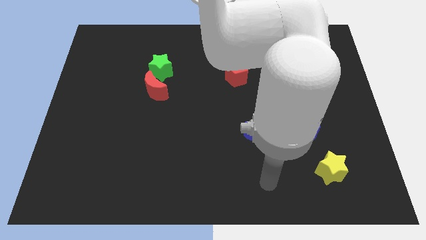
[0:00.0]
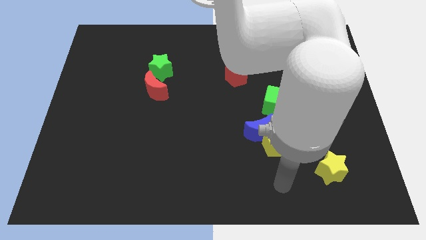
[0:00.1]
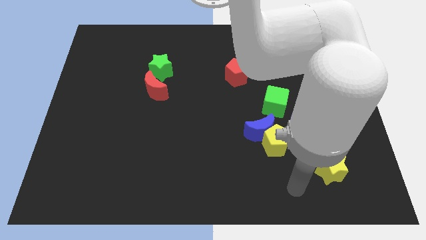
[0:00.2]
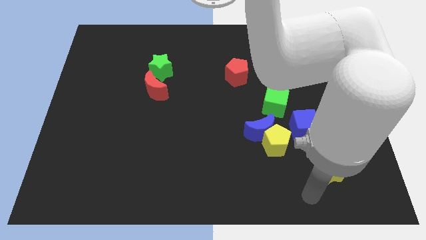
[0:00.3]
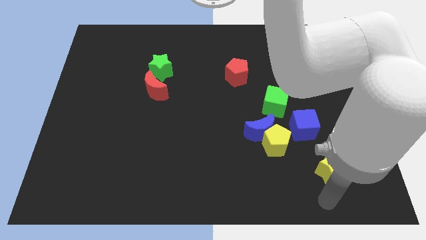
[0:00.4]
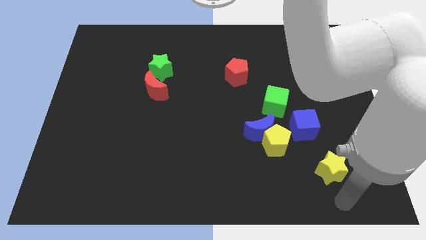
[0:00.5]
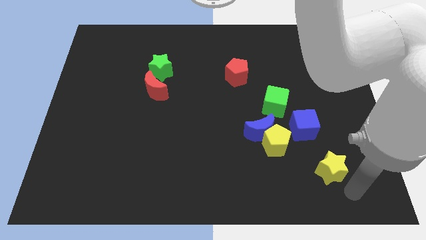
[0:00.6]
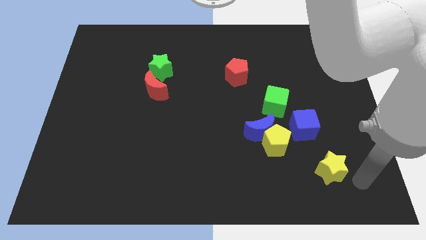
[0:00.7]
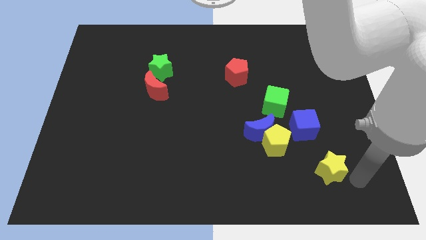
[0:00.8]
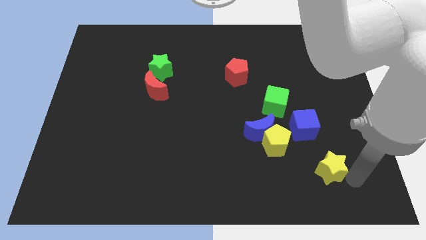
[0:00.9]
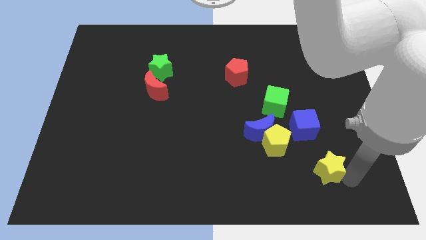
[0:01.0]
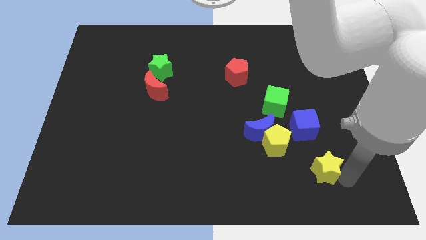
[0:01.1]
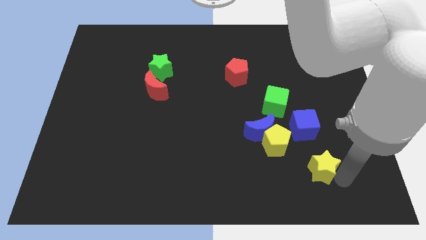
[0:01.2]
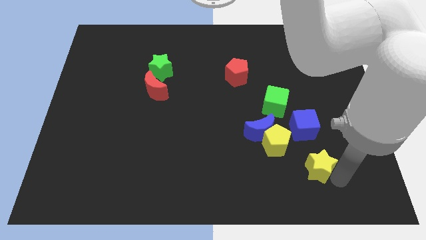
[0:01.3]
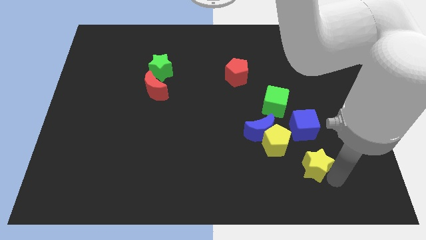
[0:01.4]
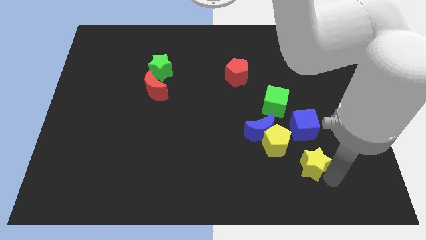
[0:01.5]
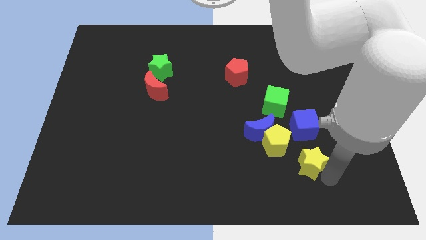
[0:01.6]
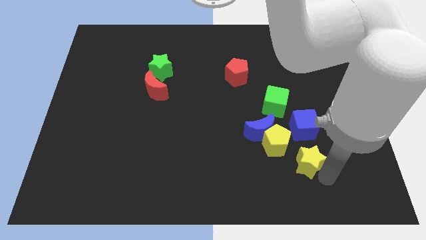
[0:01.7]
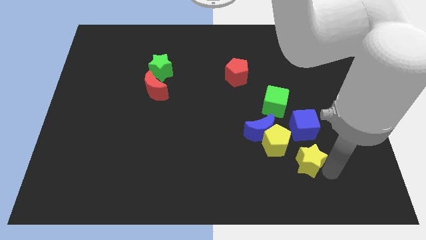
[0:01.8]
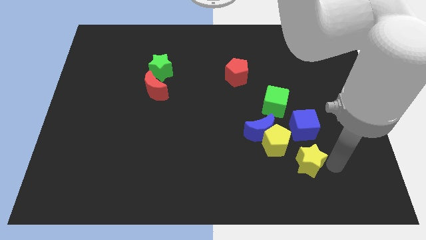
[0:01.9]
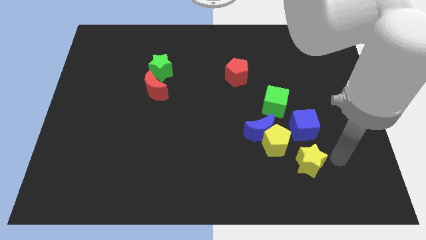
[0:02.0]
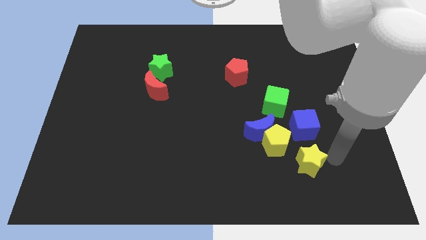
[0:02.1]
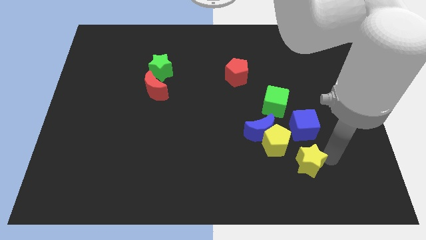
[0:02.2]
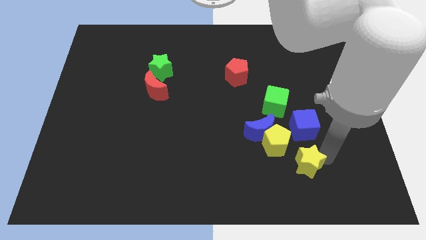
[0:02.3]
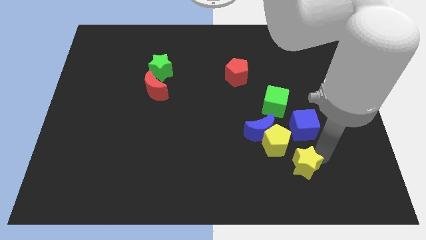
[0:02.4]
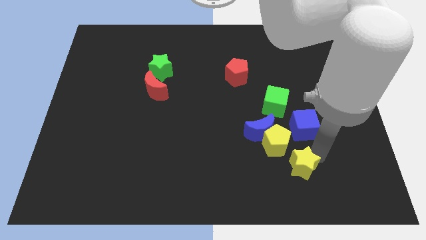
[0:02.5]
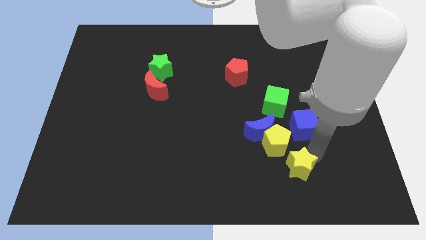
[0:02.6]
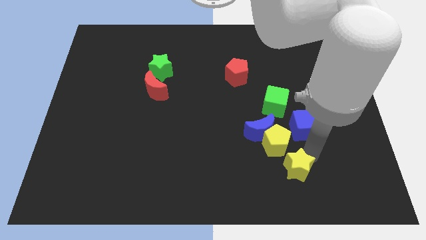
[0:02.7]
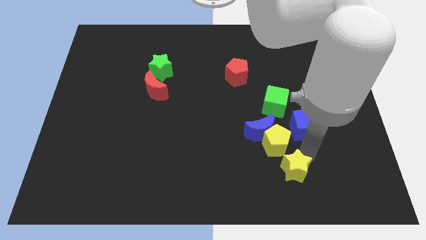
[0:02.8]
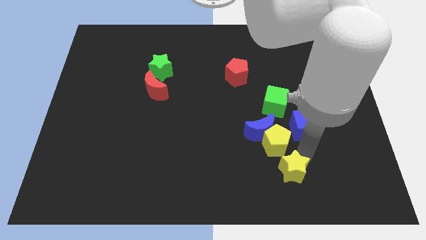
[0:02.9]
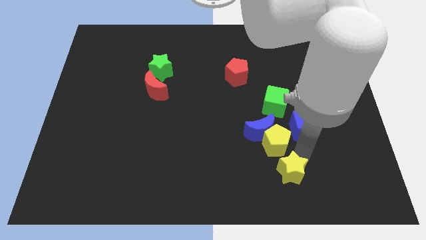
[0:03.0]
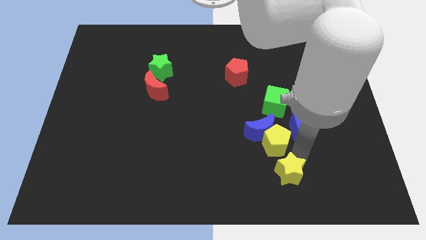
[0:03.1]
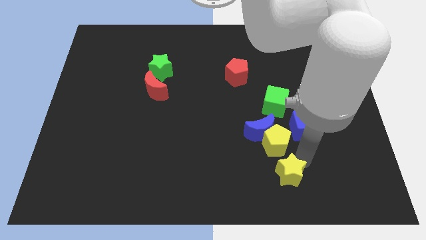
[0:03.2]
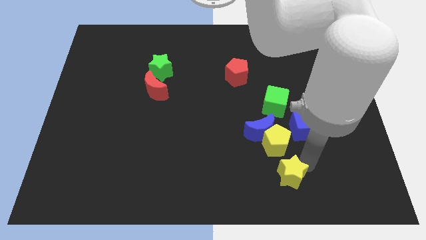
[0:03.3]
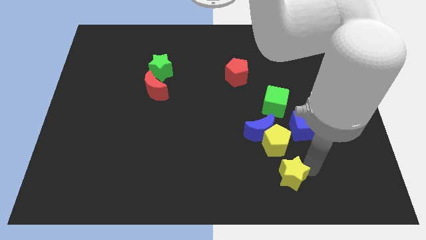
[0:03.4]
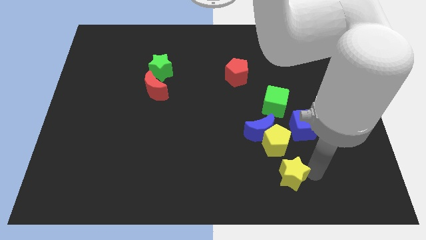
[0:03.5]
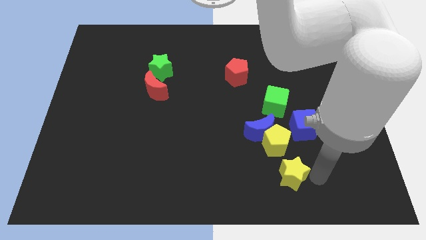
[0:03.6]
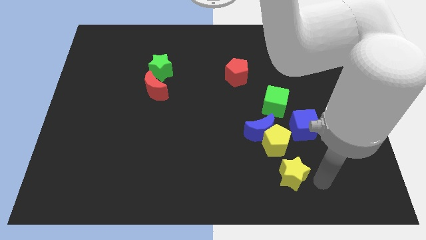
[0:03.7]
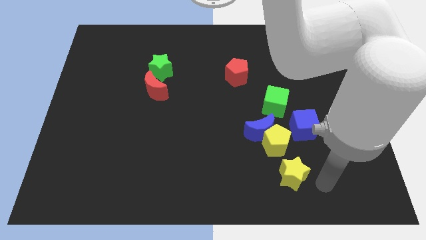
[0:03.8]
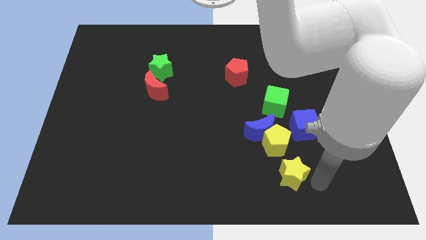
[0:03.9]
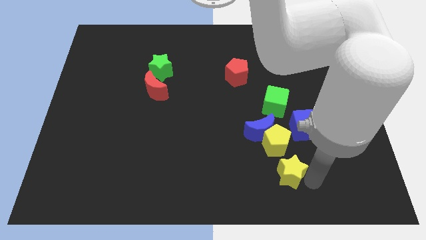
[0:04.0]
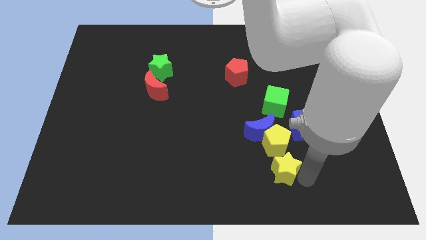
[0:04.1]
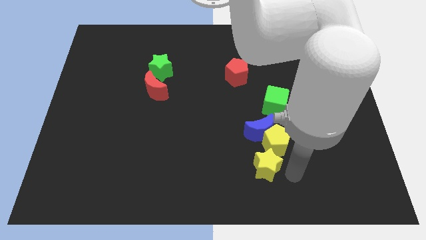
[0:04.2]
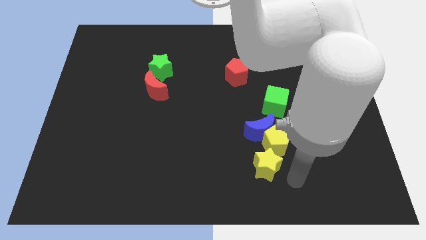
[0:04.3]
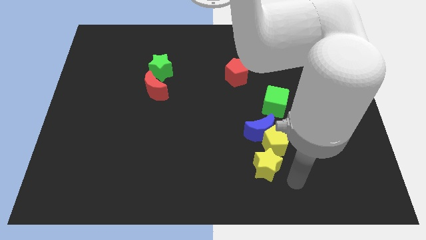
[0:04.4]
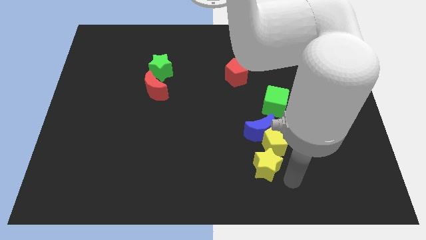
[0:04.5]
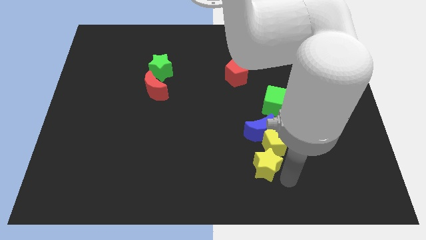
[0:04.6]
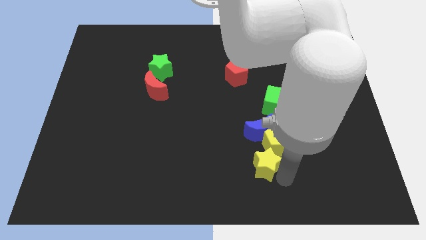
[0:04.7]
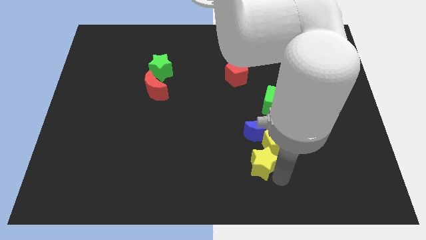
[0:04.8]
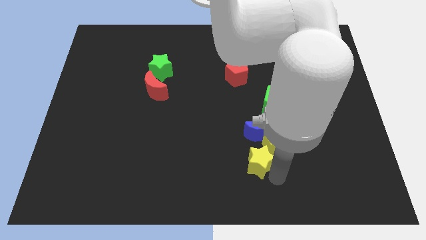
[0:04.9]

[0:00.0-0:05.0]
slide the yellow star diagonally down and to the left of the blue moon

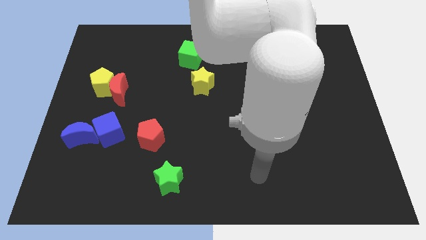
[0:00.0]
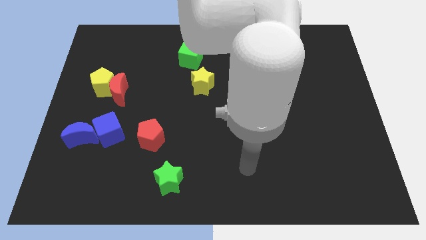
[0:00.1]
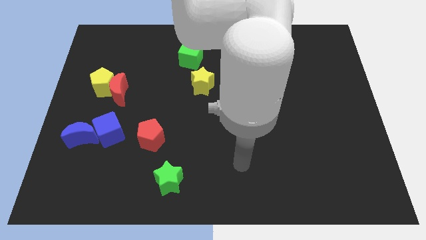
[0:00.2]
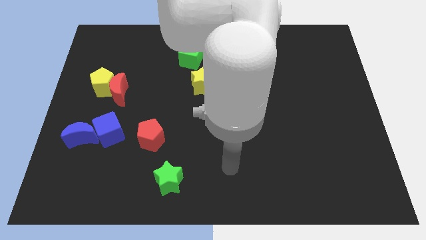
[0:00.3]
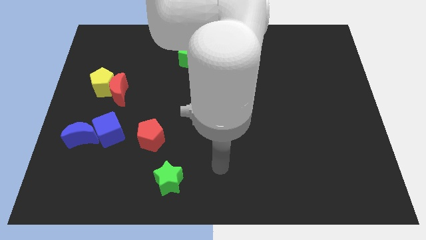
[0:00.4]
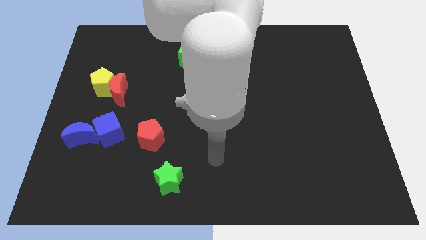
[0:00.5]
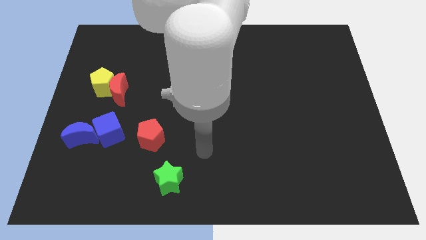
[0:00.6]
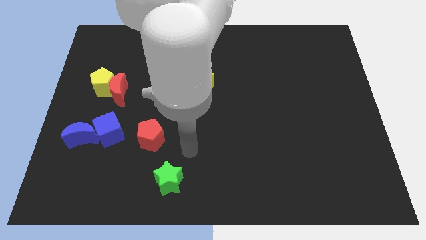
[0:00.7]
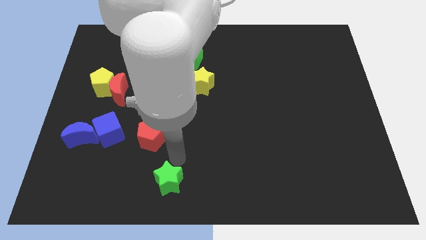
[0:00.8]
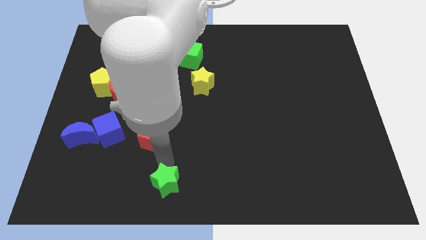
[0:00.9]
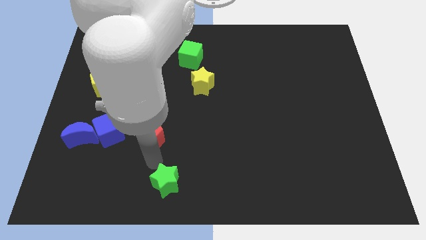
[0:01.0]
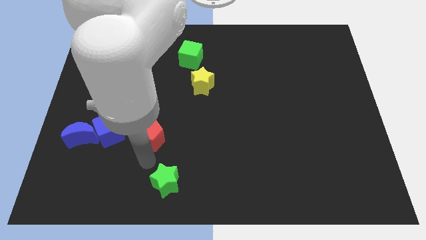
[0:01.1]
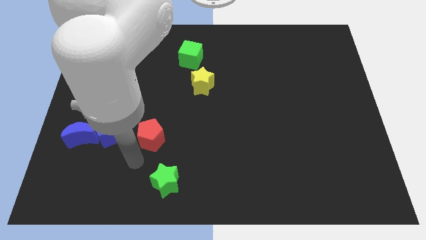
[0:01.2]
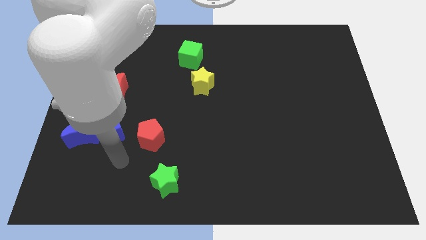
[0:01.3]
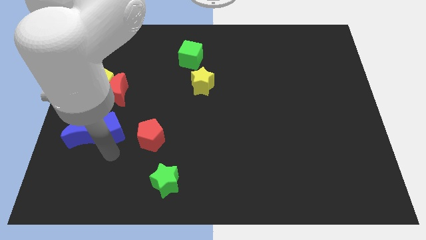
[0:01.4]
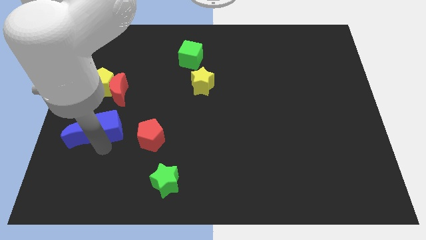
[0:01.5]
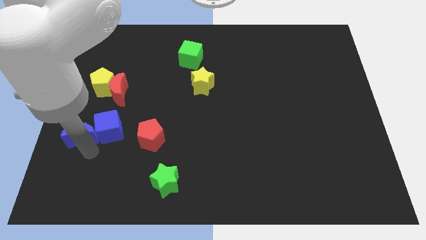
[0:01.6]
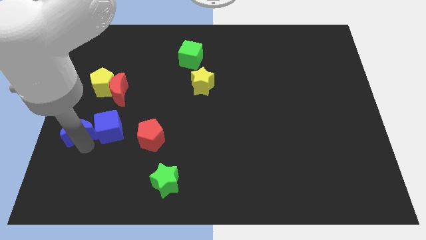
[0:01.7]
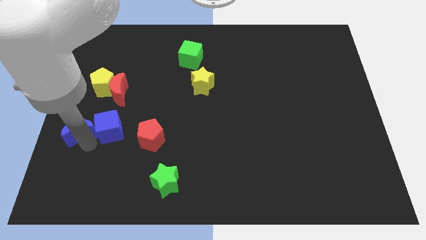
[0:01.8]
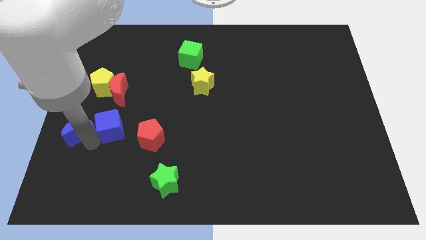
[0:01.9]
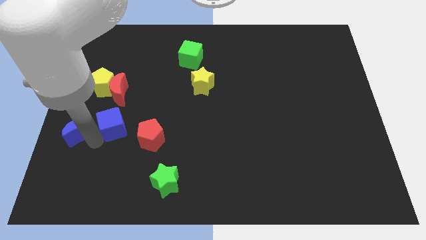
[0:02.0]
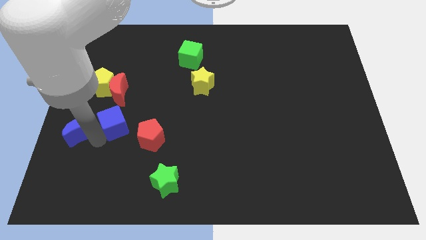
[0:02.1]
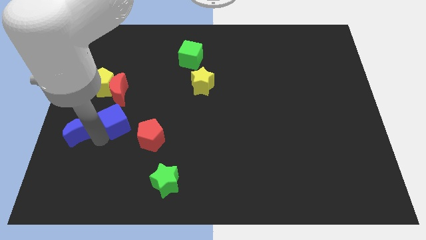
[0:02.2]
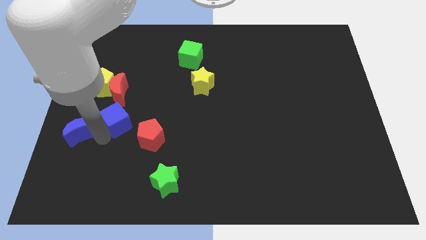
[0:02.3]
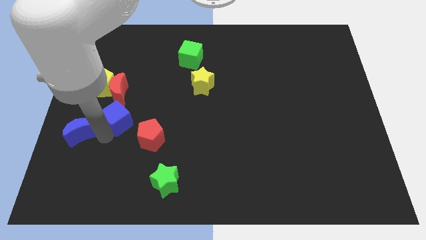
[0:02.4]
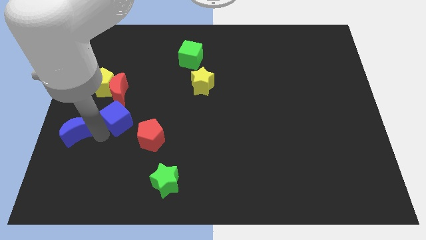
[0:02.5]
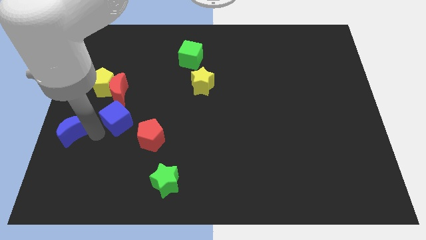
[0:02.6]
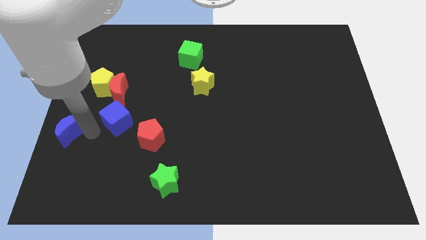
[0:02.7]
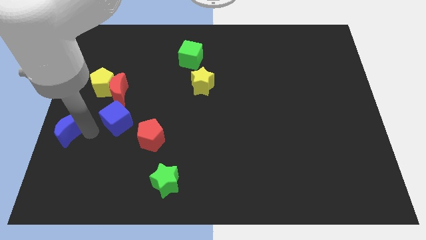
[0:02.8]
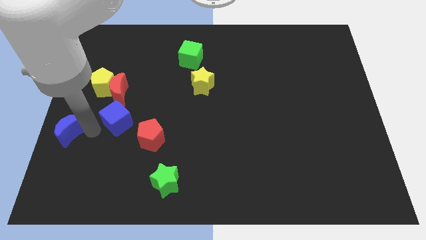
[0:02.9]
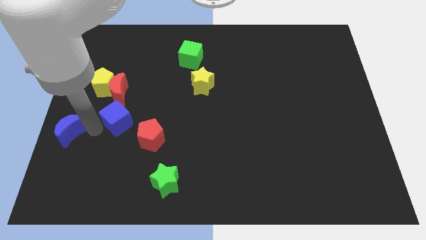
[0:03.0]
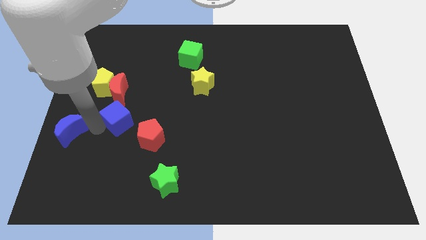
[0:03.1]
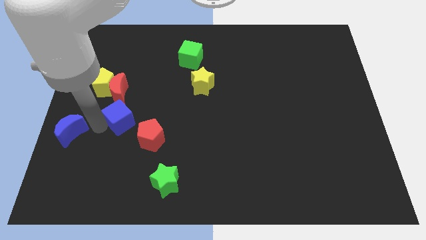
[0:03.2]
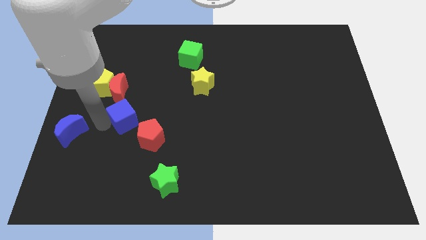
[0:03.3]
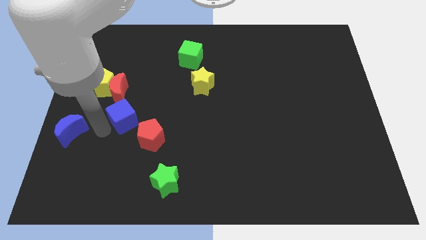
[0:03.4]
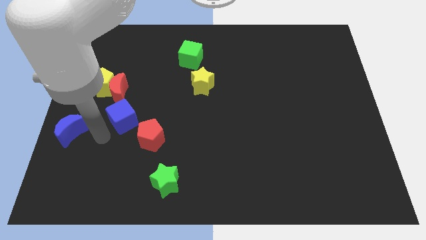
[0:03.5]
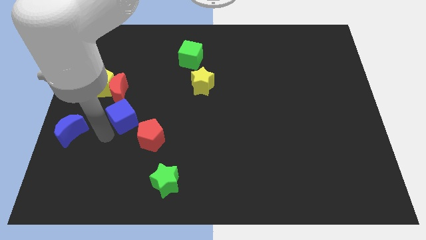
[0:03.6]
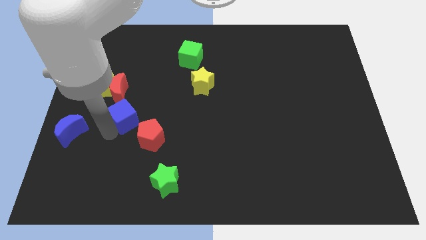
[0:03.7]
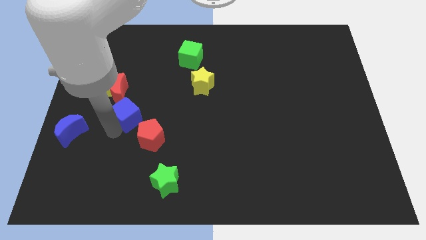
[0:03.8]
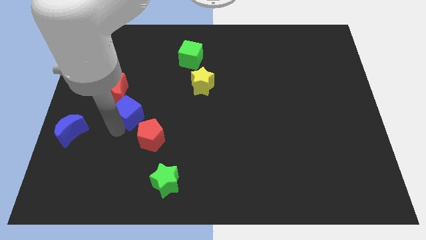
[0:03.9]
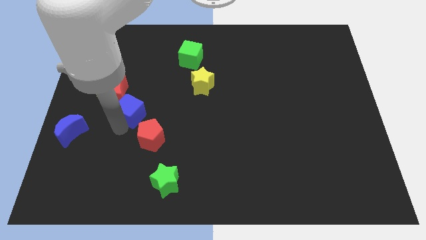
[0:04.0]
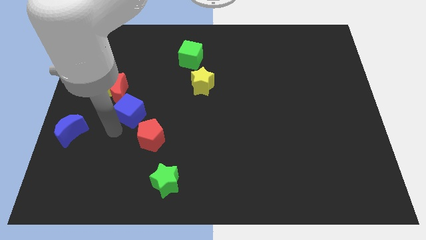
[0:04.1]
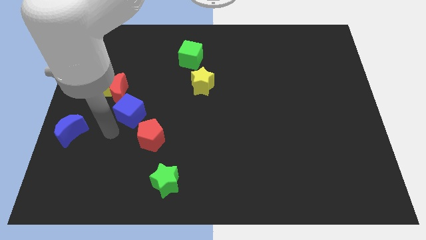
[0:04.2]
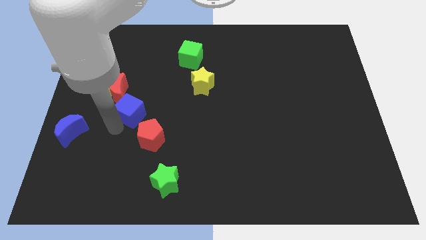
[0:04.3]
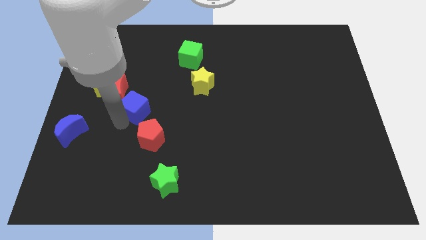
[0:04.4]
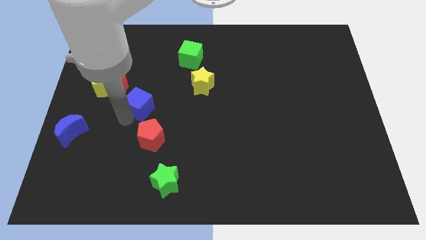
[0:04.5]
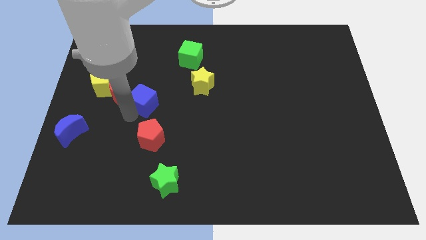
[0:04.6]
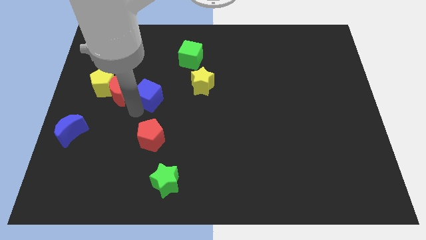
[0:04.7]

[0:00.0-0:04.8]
put the blue cube just left of the yellow star
